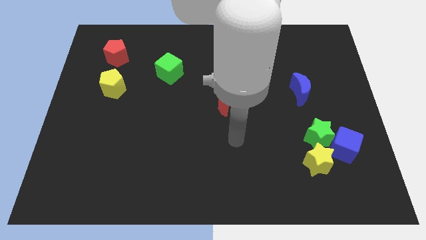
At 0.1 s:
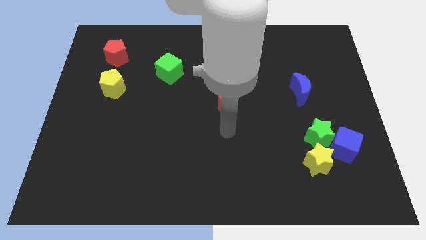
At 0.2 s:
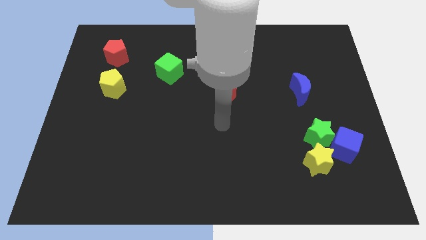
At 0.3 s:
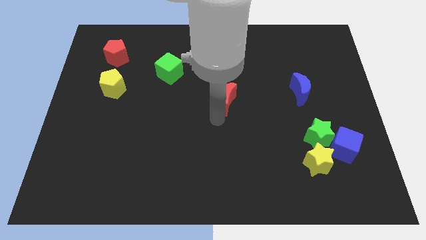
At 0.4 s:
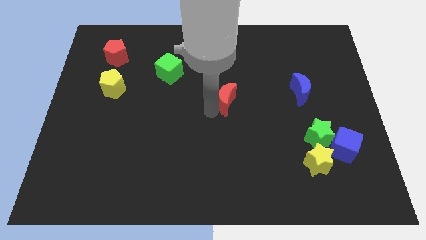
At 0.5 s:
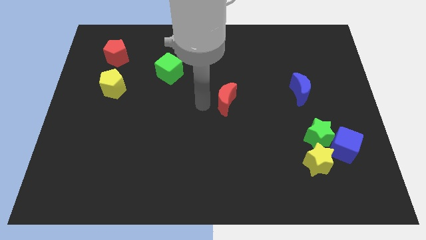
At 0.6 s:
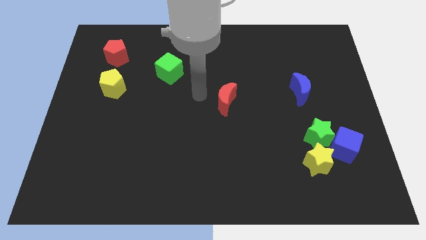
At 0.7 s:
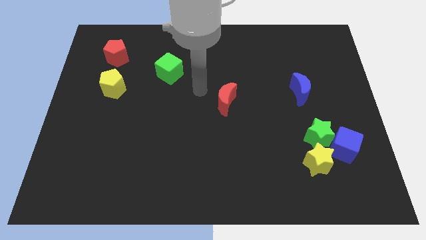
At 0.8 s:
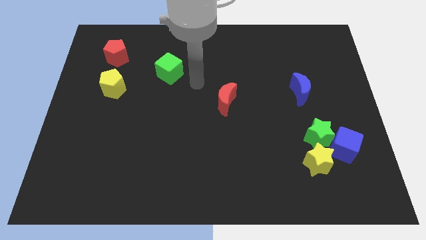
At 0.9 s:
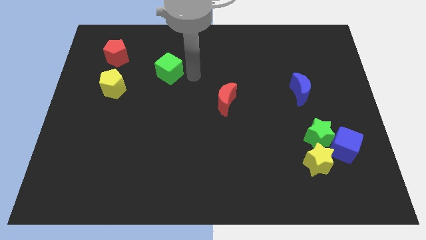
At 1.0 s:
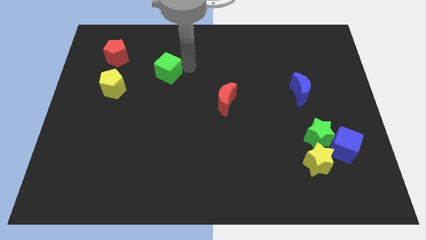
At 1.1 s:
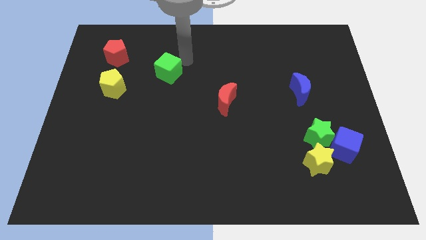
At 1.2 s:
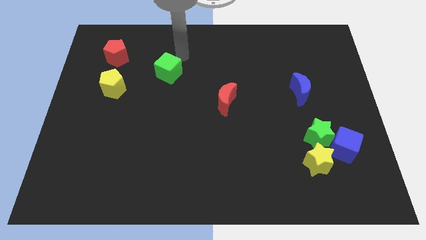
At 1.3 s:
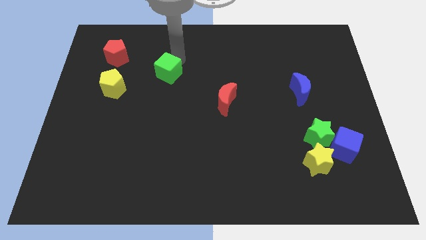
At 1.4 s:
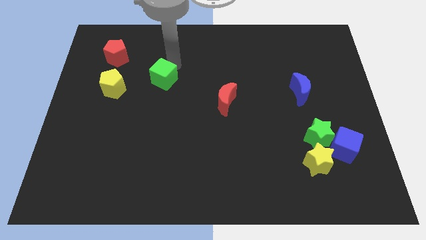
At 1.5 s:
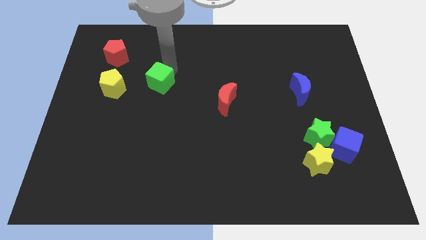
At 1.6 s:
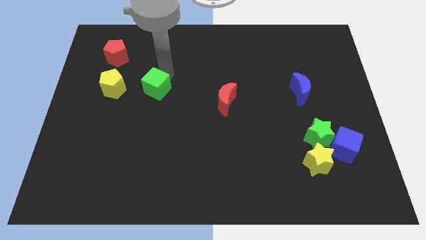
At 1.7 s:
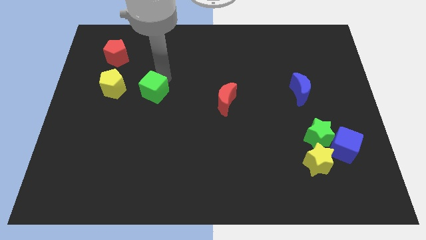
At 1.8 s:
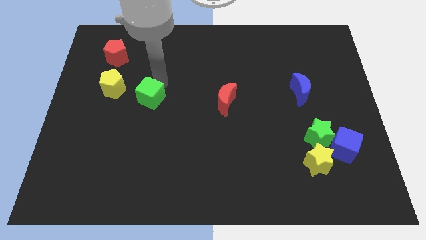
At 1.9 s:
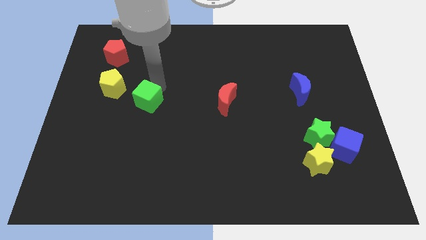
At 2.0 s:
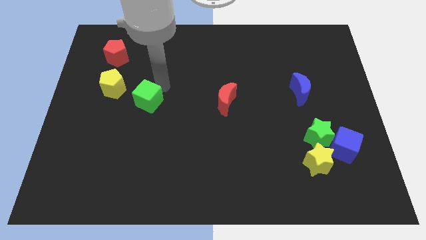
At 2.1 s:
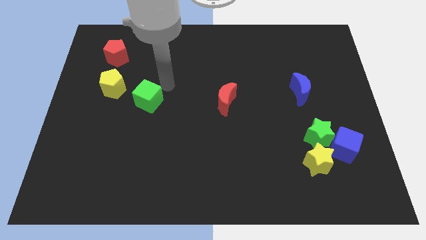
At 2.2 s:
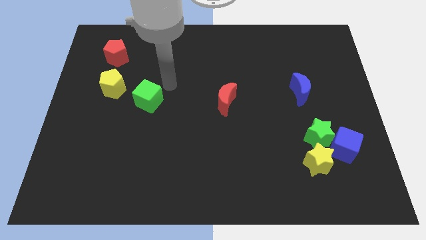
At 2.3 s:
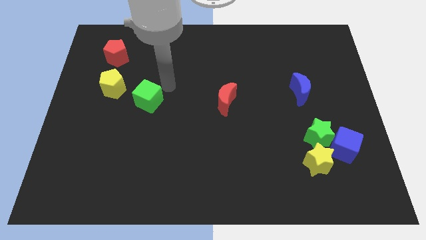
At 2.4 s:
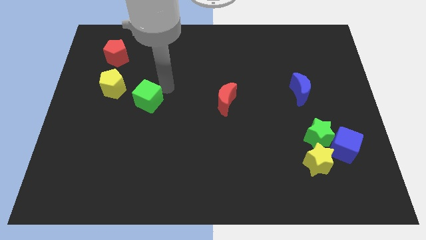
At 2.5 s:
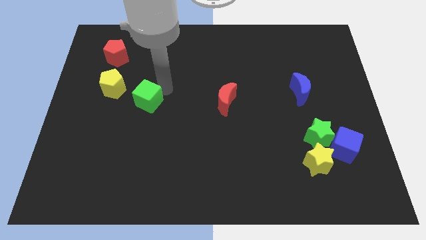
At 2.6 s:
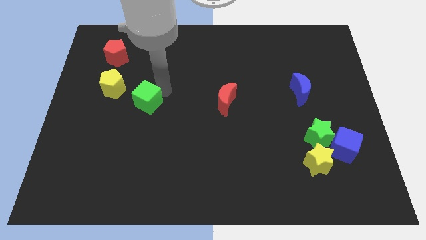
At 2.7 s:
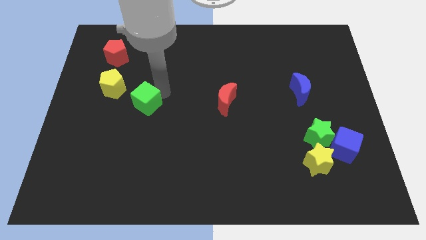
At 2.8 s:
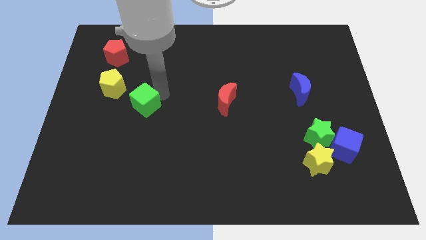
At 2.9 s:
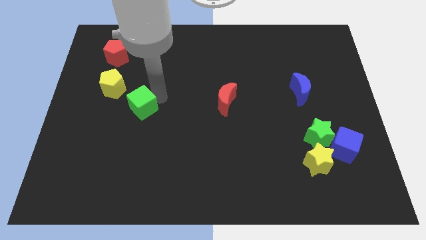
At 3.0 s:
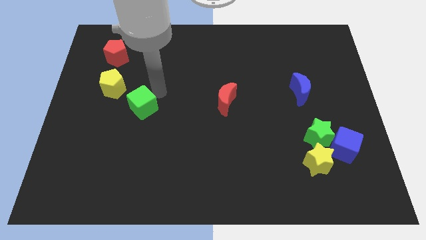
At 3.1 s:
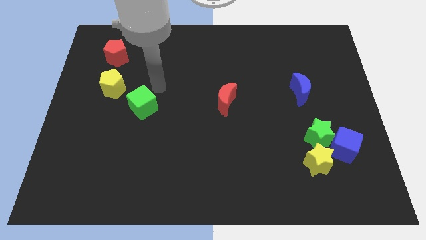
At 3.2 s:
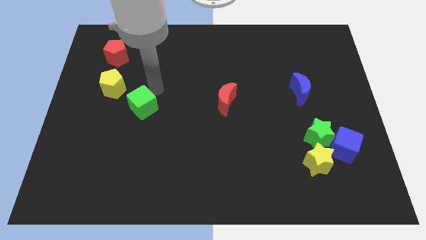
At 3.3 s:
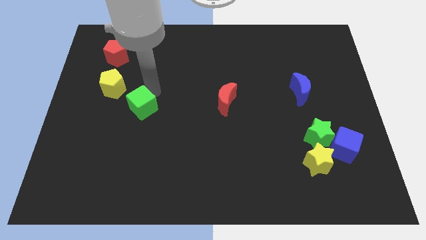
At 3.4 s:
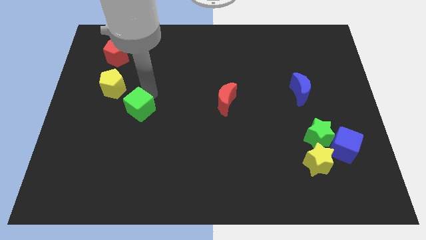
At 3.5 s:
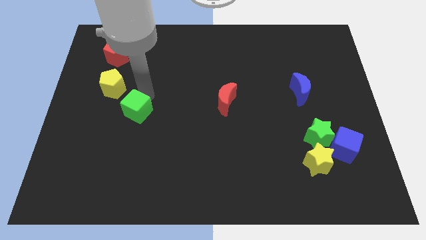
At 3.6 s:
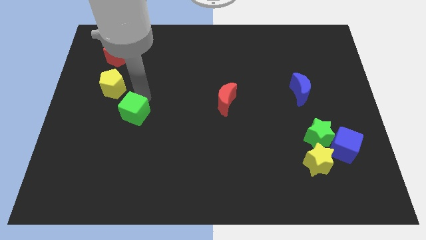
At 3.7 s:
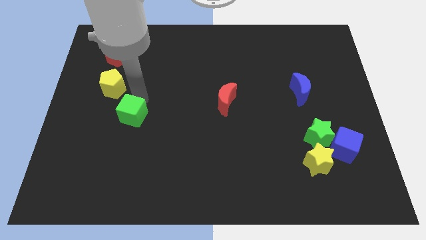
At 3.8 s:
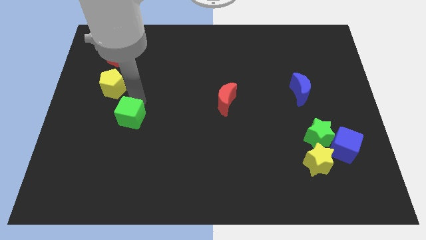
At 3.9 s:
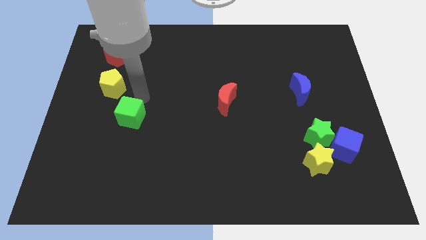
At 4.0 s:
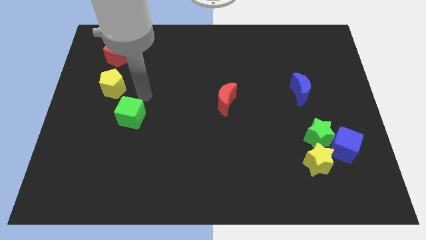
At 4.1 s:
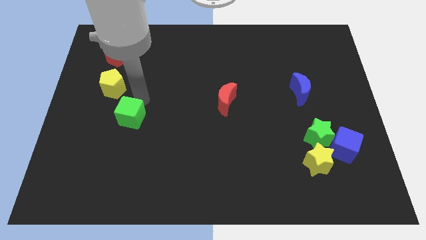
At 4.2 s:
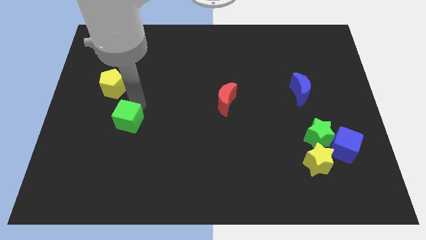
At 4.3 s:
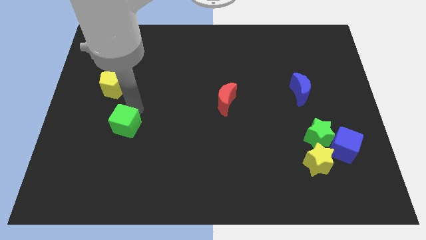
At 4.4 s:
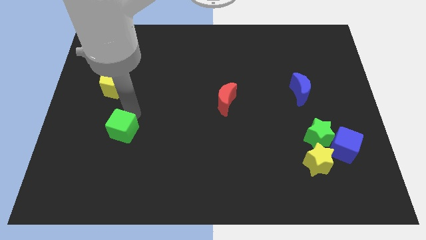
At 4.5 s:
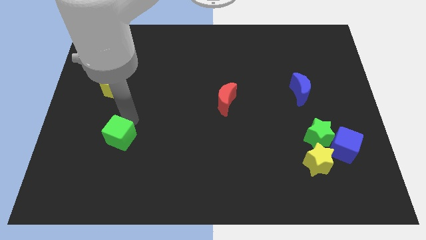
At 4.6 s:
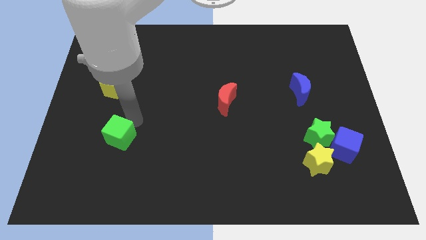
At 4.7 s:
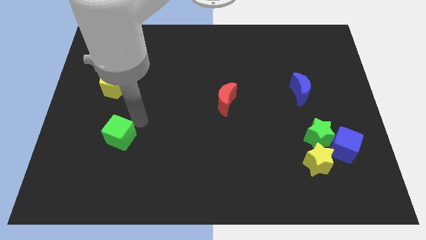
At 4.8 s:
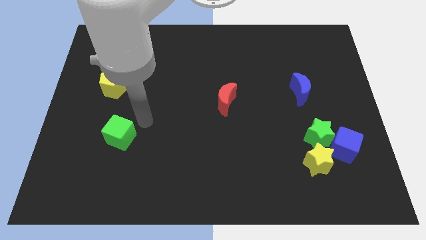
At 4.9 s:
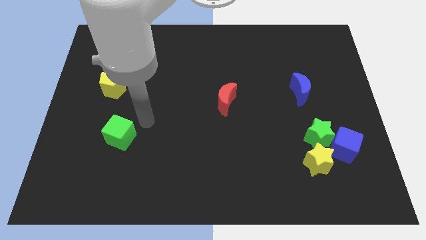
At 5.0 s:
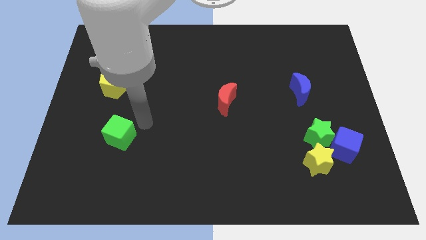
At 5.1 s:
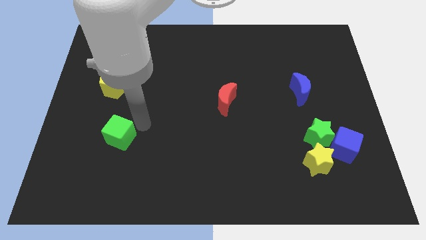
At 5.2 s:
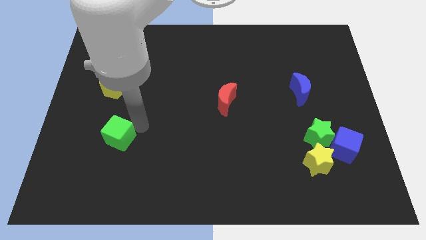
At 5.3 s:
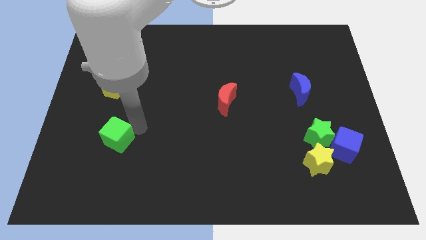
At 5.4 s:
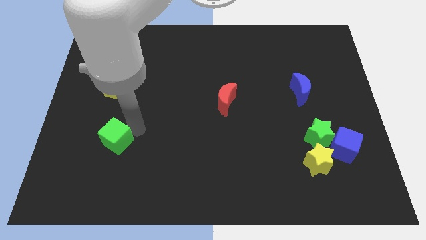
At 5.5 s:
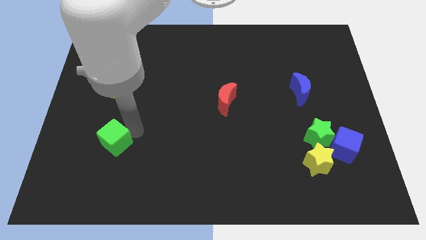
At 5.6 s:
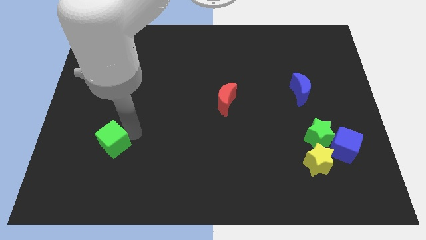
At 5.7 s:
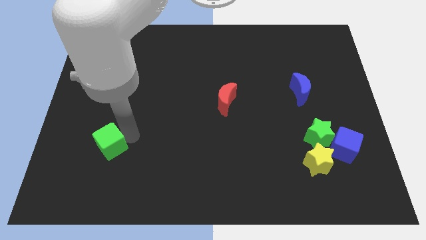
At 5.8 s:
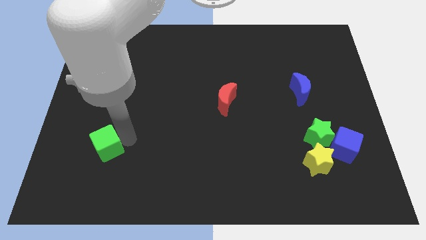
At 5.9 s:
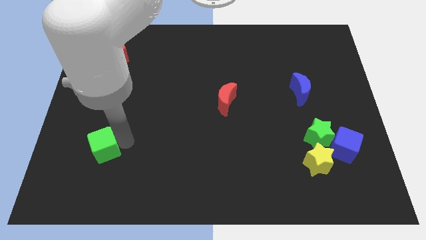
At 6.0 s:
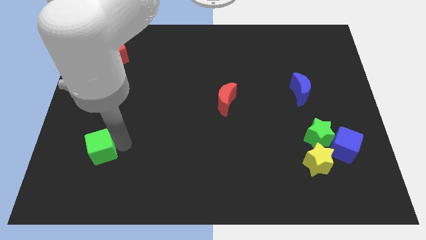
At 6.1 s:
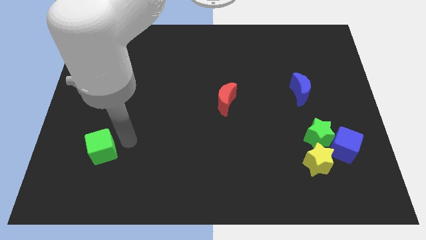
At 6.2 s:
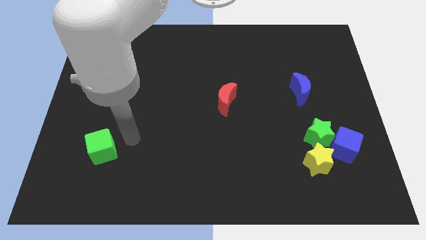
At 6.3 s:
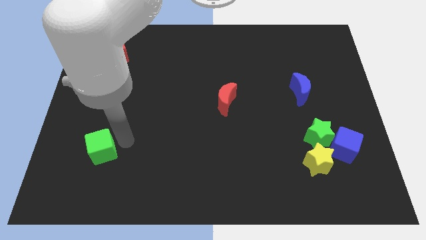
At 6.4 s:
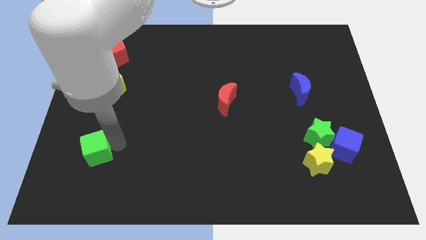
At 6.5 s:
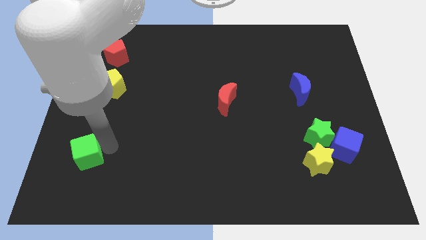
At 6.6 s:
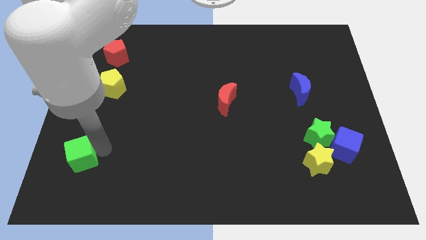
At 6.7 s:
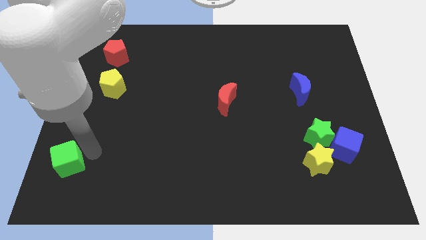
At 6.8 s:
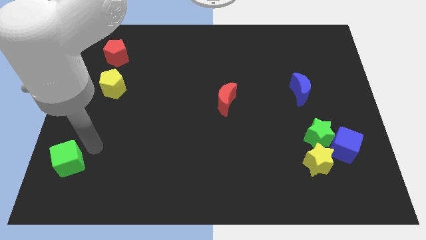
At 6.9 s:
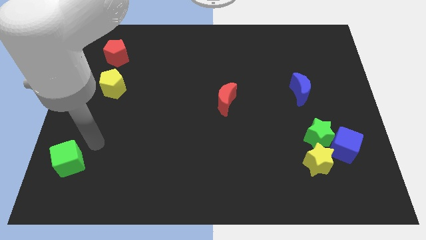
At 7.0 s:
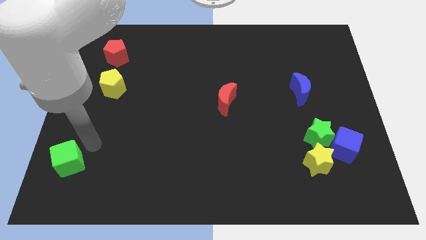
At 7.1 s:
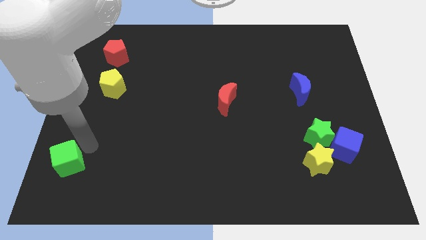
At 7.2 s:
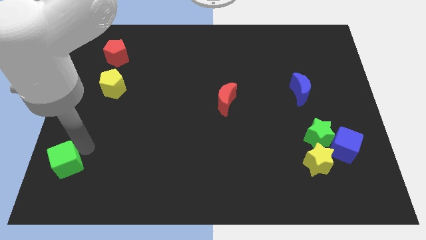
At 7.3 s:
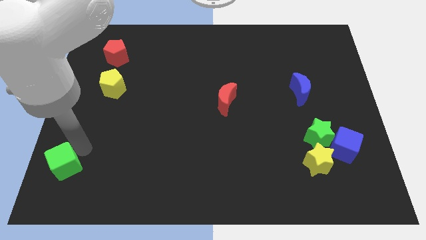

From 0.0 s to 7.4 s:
slide the green cube to the bottom left

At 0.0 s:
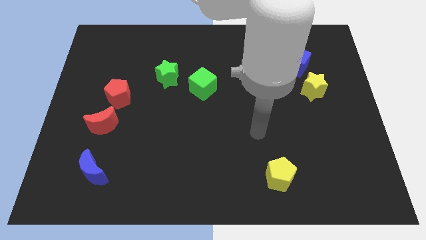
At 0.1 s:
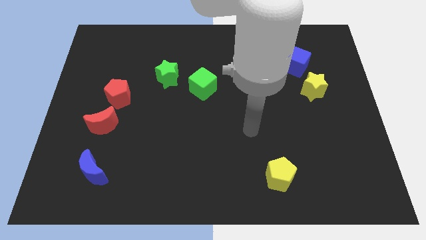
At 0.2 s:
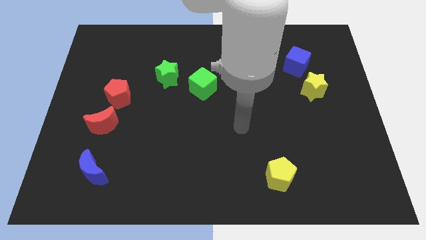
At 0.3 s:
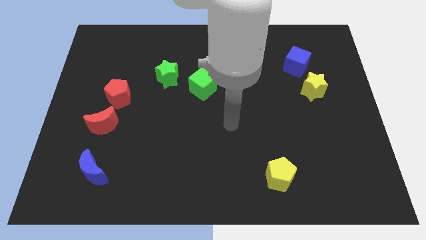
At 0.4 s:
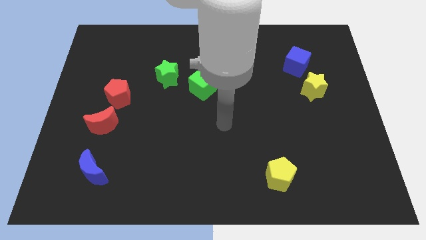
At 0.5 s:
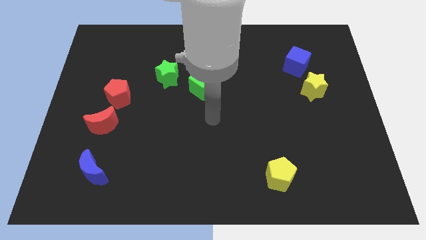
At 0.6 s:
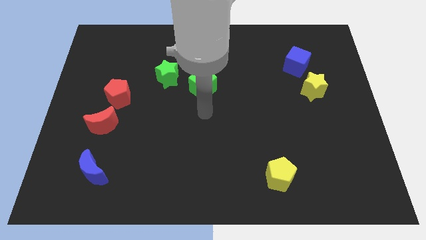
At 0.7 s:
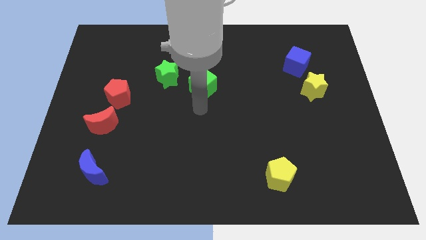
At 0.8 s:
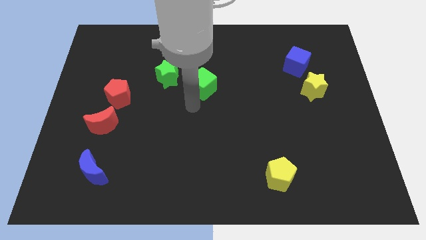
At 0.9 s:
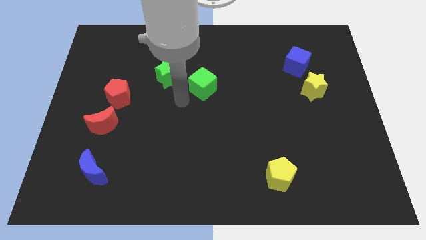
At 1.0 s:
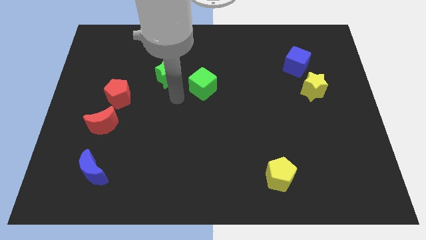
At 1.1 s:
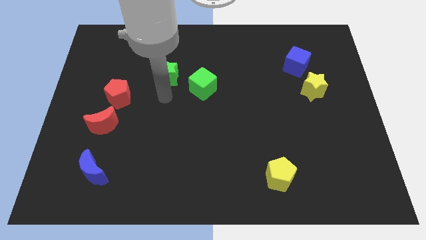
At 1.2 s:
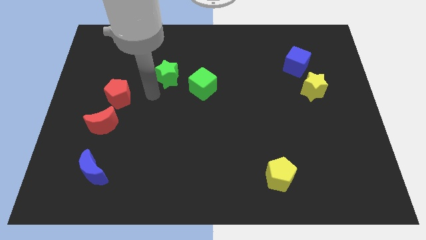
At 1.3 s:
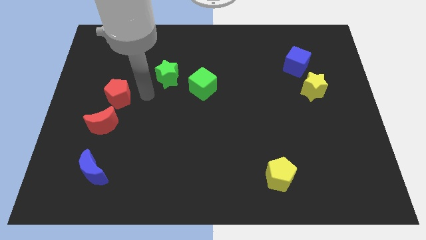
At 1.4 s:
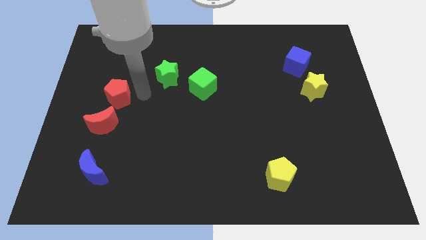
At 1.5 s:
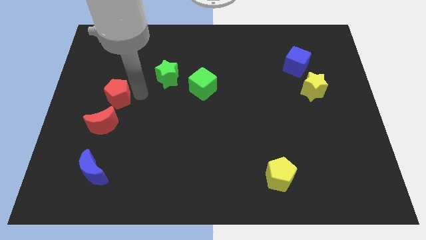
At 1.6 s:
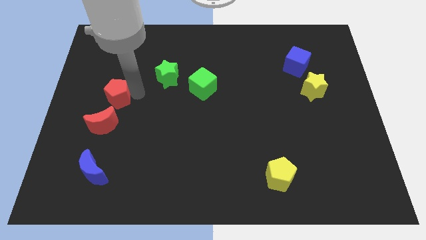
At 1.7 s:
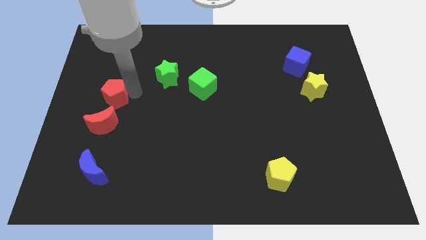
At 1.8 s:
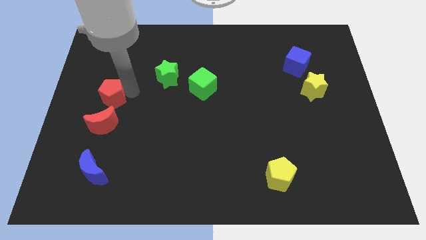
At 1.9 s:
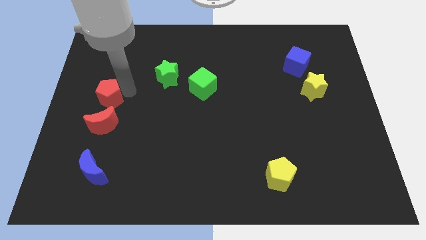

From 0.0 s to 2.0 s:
put the red pentagon to the left side of the board
